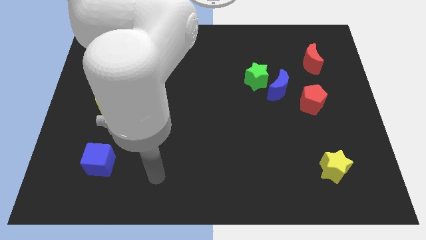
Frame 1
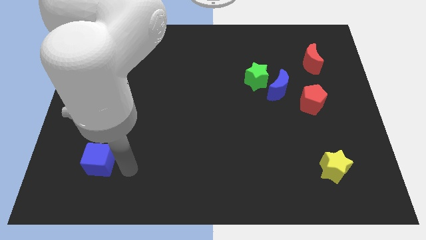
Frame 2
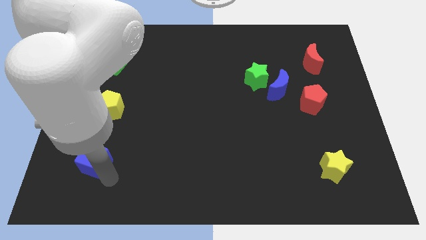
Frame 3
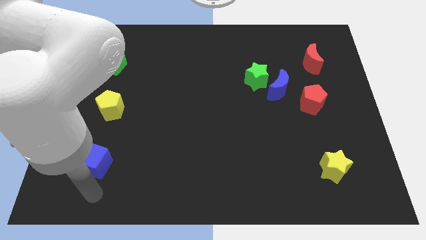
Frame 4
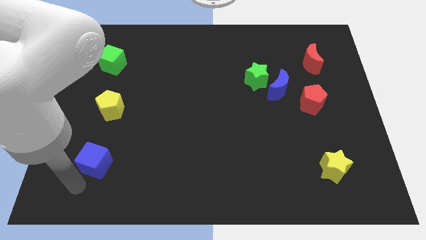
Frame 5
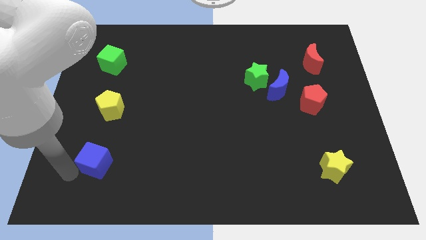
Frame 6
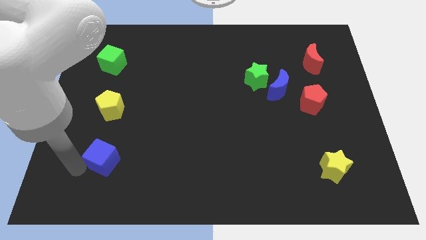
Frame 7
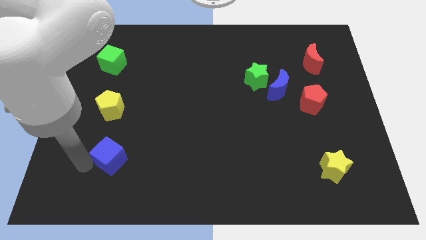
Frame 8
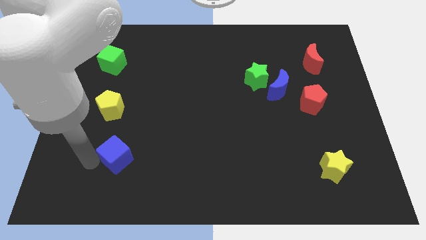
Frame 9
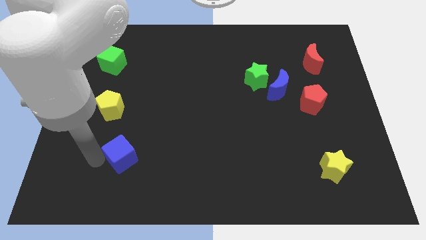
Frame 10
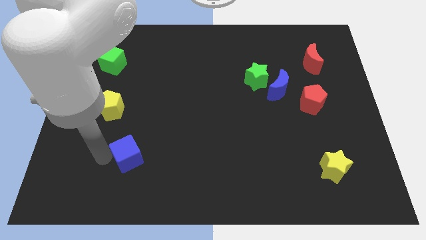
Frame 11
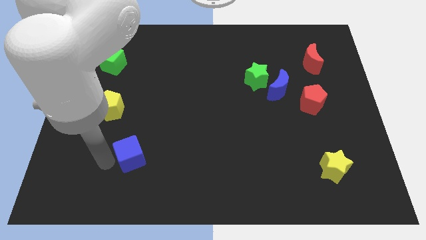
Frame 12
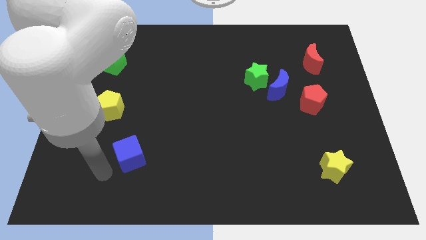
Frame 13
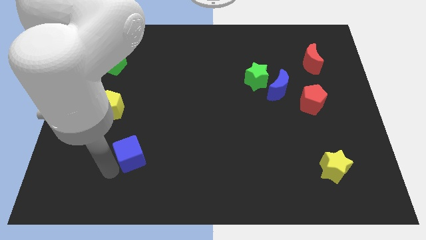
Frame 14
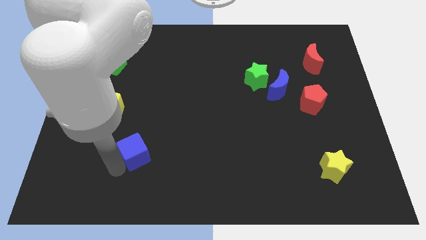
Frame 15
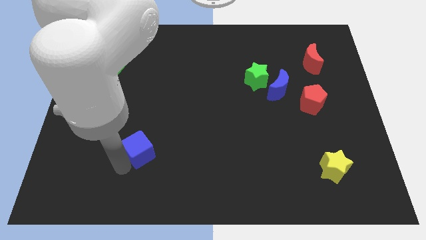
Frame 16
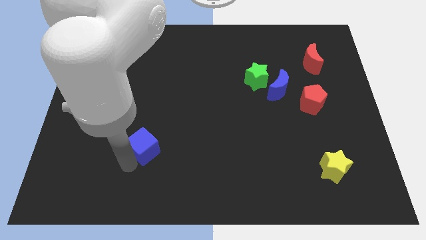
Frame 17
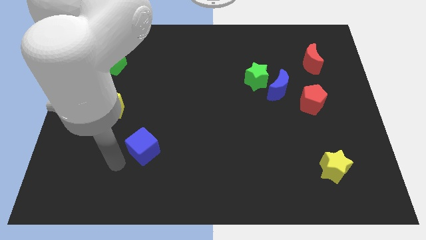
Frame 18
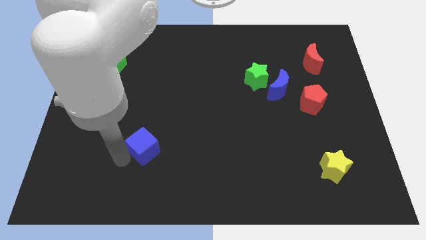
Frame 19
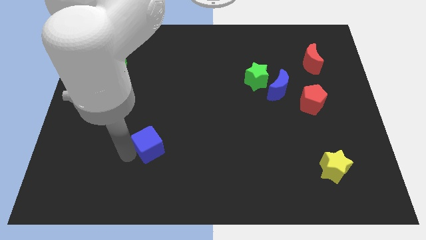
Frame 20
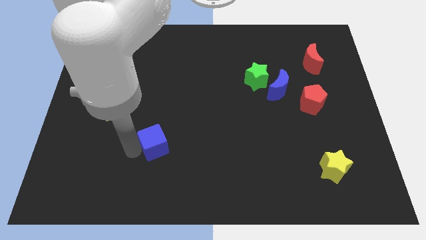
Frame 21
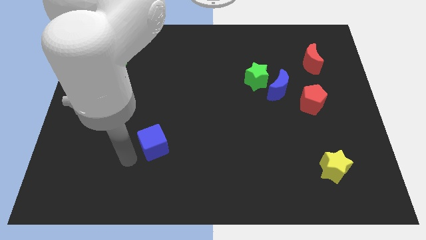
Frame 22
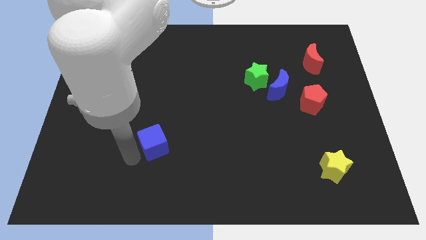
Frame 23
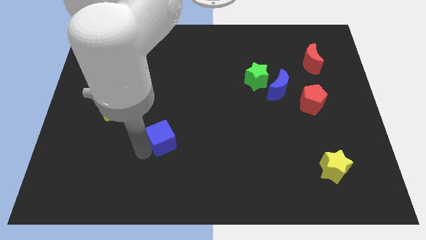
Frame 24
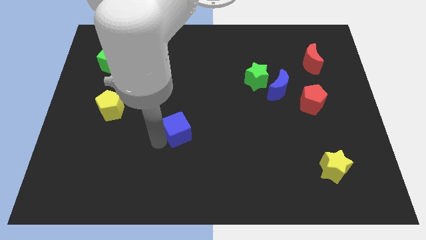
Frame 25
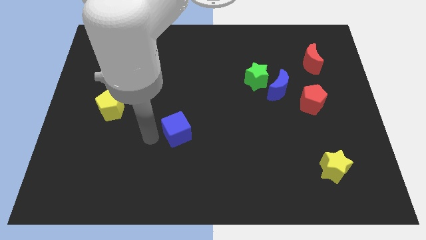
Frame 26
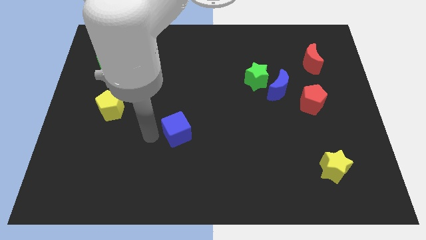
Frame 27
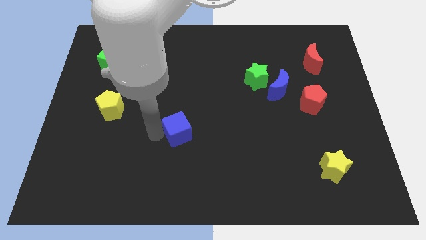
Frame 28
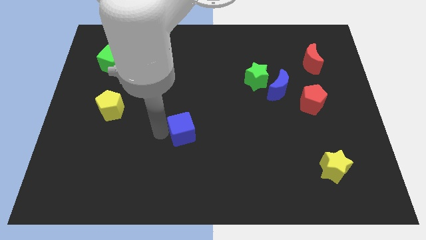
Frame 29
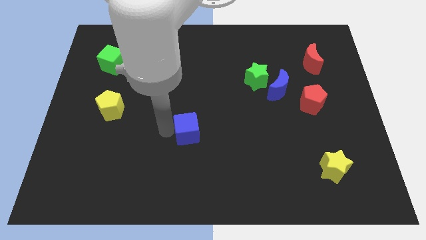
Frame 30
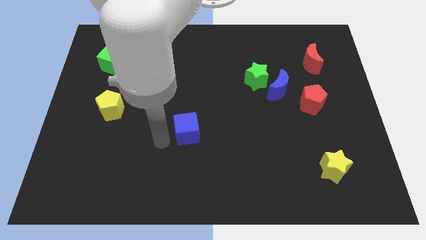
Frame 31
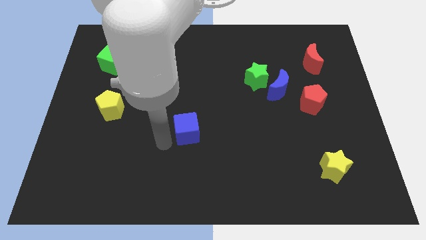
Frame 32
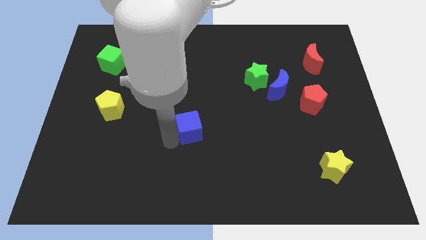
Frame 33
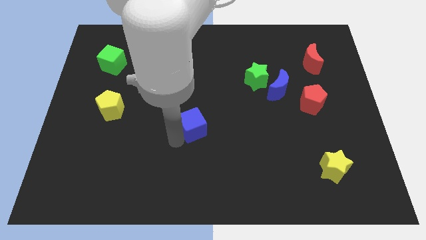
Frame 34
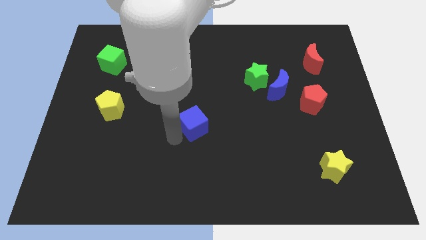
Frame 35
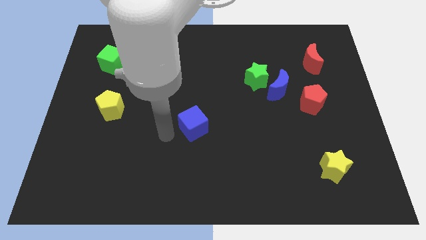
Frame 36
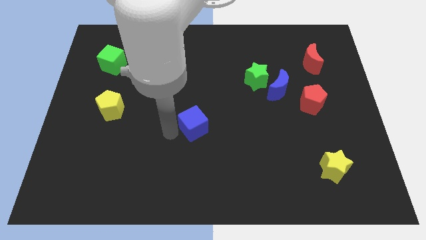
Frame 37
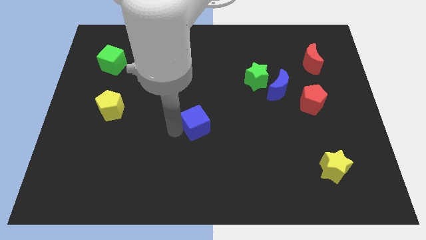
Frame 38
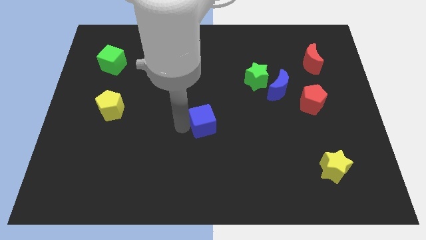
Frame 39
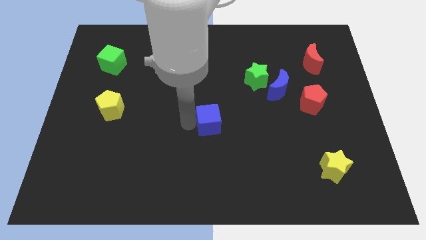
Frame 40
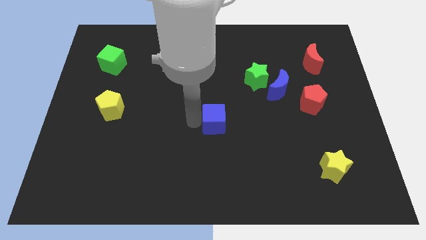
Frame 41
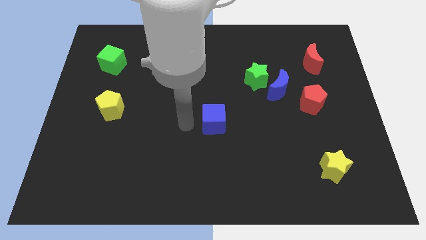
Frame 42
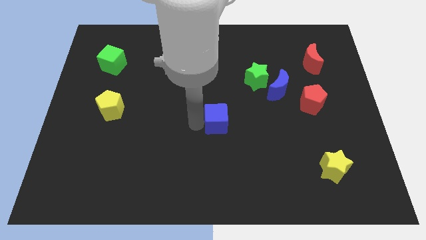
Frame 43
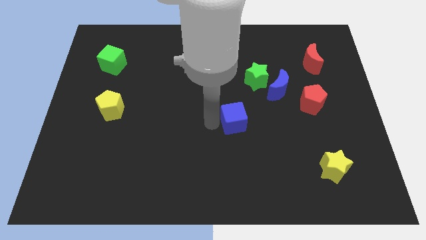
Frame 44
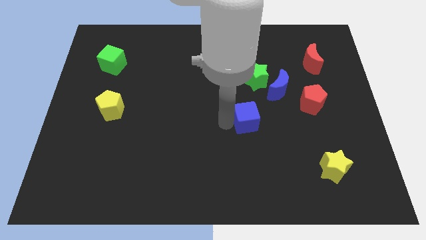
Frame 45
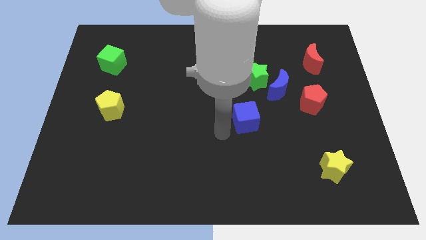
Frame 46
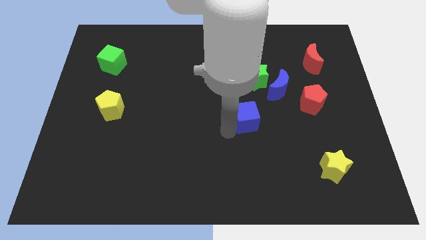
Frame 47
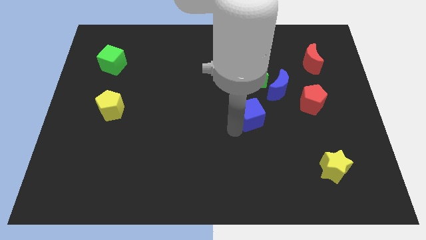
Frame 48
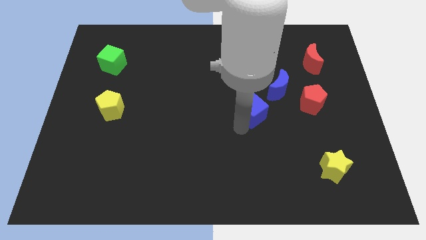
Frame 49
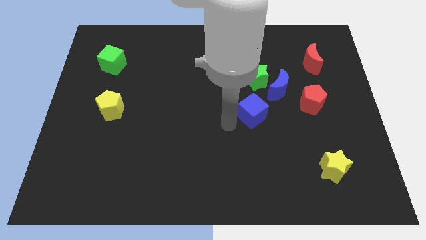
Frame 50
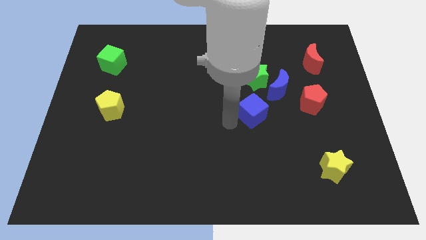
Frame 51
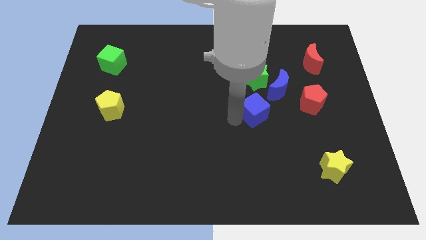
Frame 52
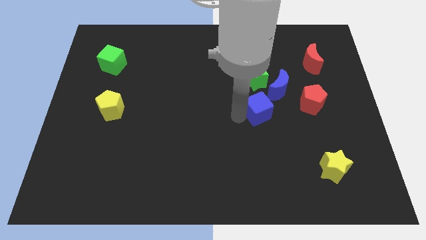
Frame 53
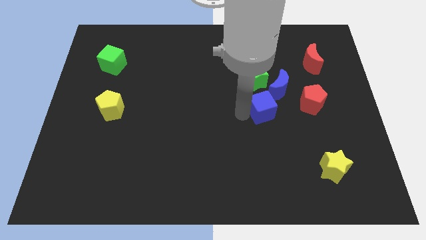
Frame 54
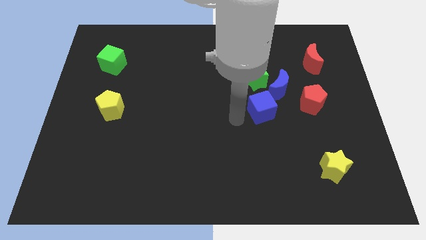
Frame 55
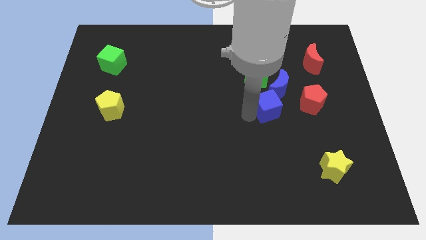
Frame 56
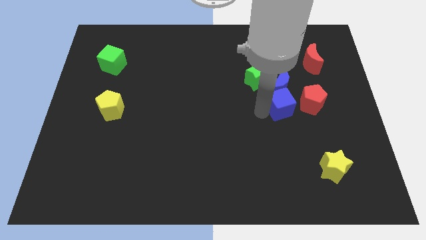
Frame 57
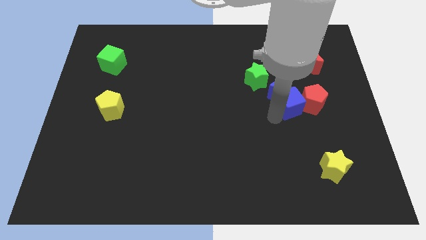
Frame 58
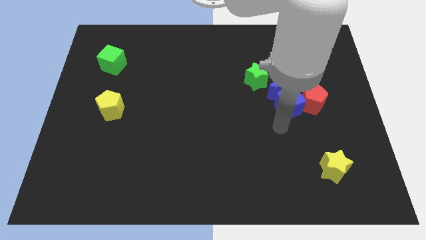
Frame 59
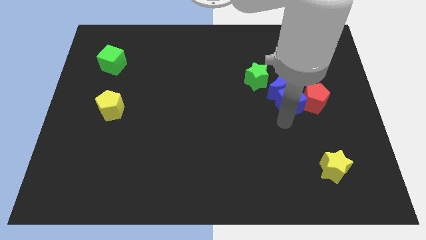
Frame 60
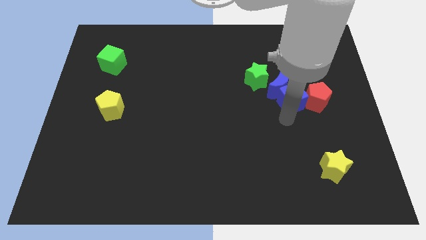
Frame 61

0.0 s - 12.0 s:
move the blue cube to the right side of the blue moon

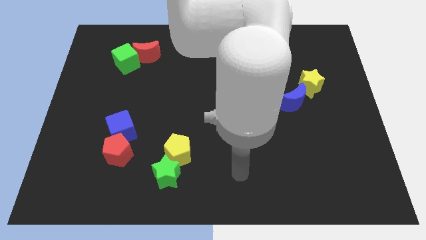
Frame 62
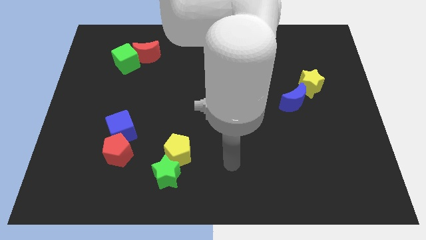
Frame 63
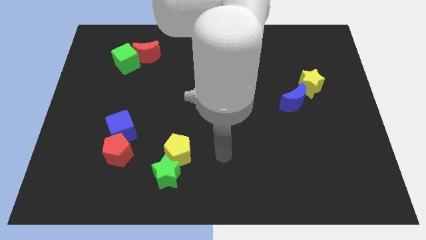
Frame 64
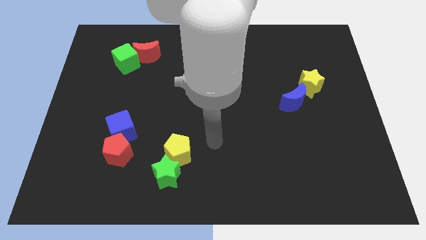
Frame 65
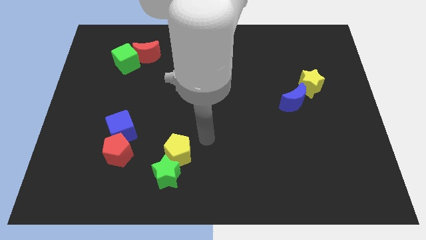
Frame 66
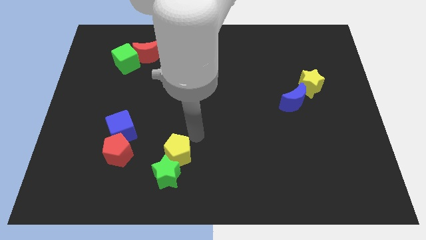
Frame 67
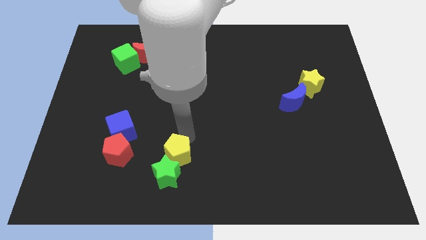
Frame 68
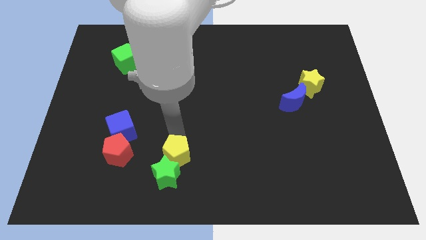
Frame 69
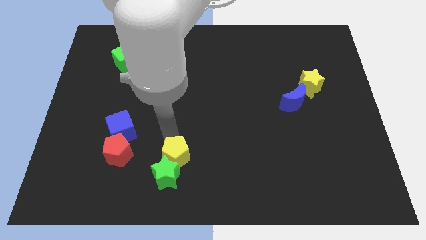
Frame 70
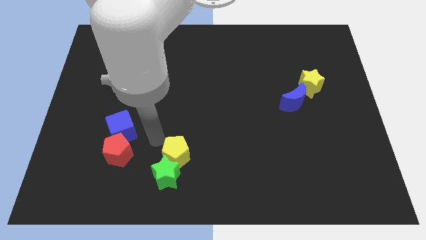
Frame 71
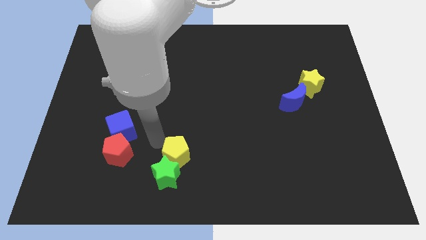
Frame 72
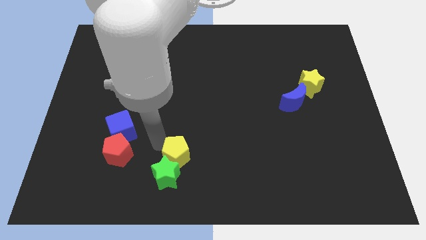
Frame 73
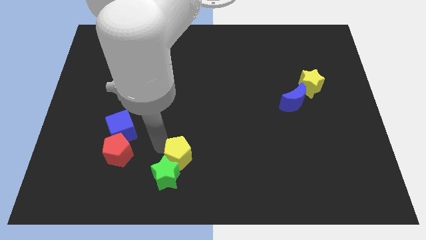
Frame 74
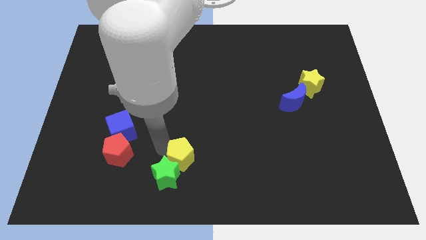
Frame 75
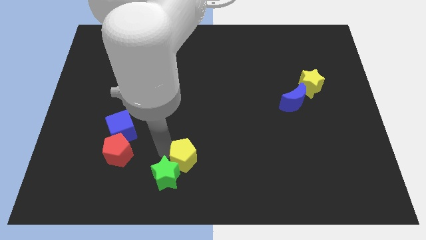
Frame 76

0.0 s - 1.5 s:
put the yellow pentagon to the right of the green star

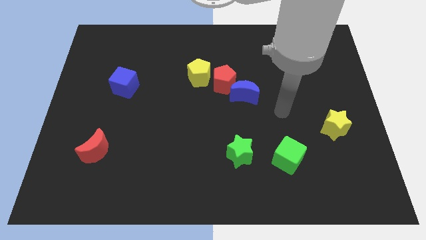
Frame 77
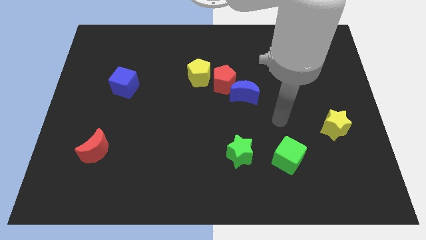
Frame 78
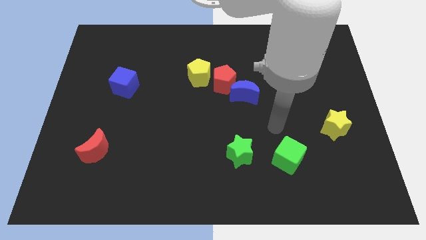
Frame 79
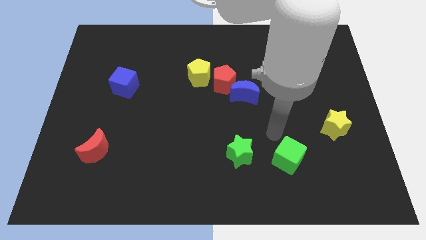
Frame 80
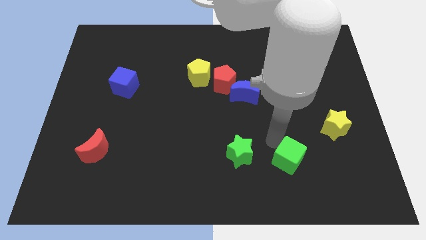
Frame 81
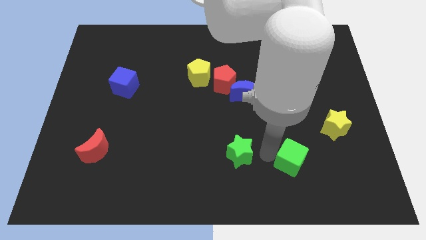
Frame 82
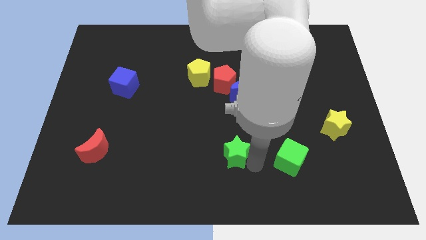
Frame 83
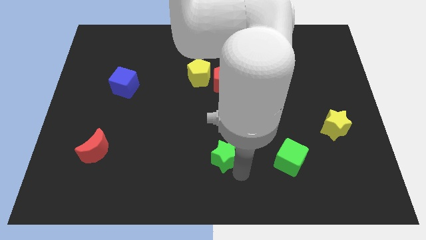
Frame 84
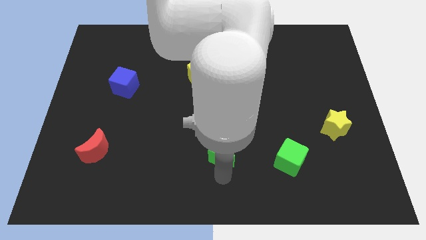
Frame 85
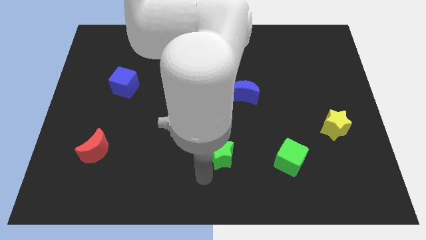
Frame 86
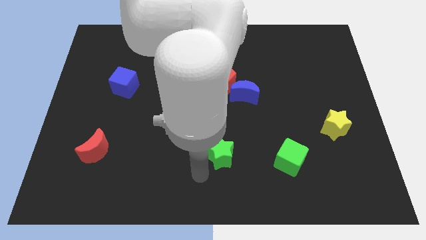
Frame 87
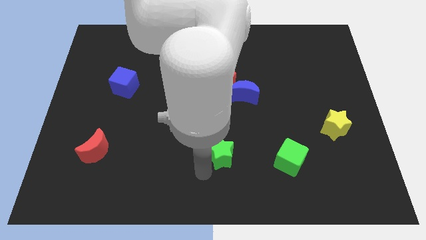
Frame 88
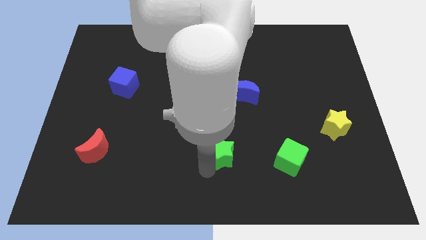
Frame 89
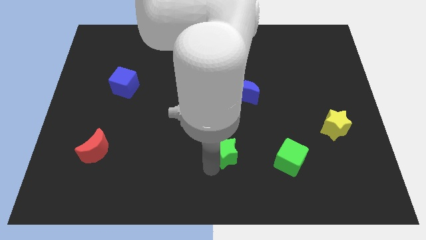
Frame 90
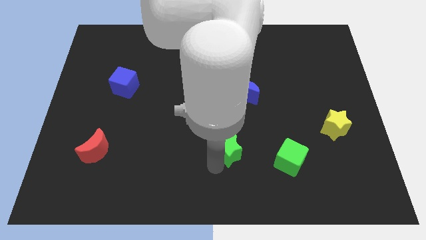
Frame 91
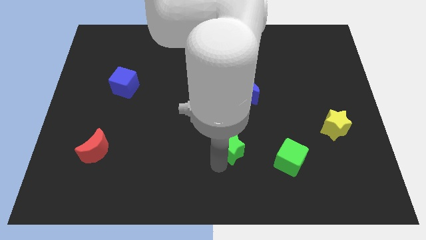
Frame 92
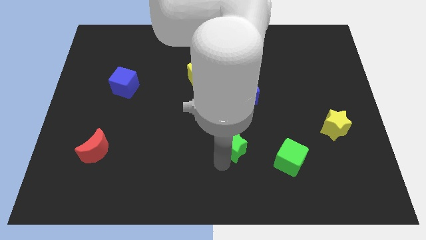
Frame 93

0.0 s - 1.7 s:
move the green star below the blue moon
